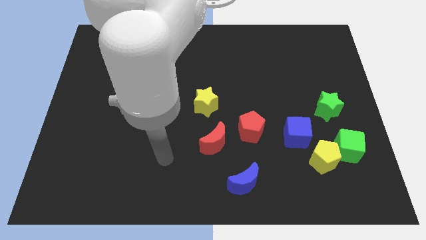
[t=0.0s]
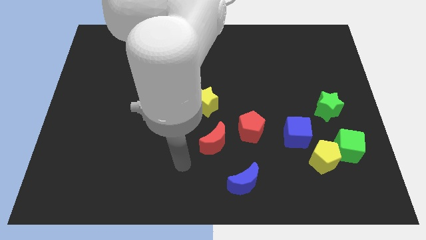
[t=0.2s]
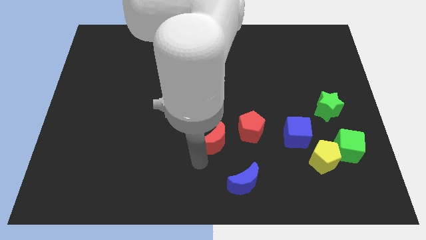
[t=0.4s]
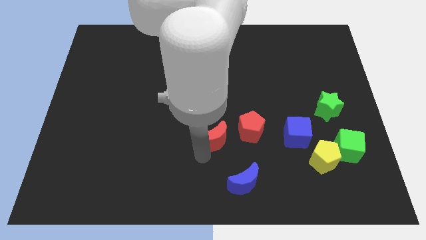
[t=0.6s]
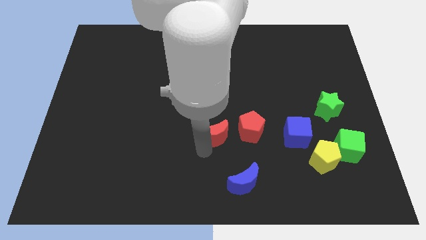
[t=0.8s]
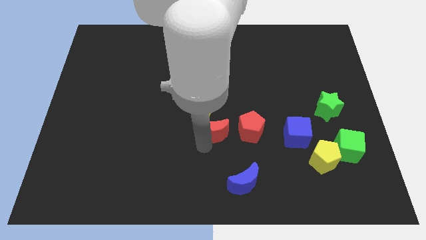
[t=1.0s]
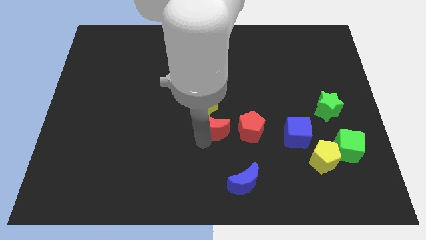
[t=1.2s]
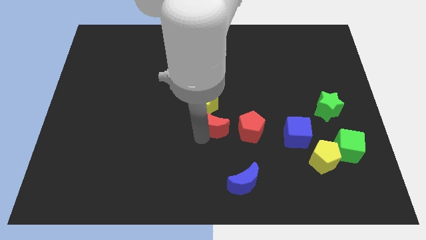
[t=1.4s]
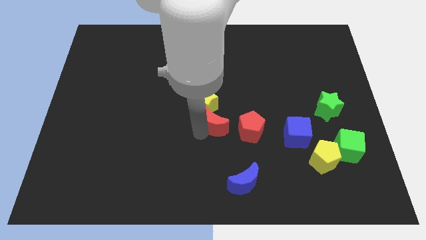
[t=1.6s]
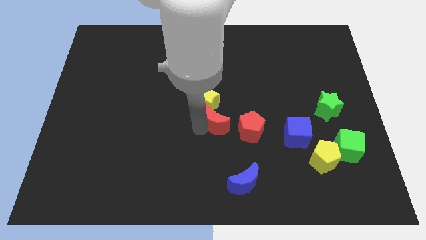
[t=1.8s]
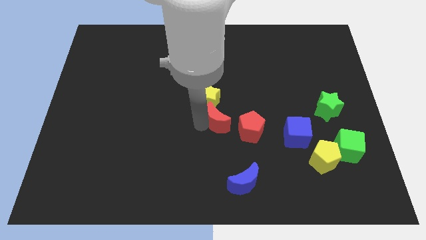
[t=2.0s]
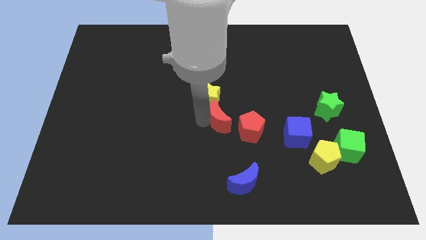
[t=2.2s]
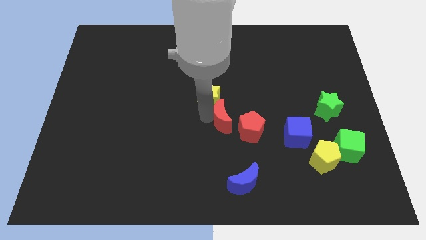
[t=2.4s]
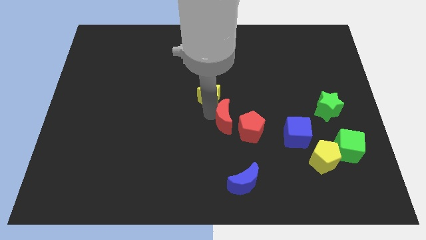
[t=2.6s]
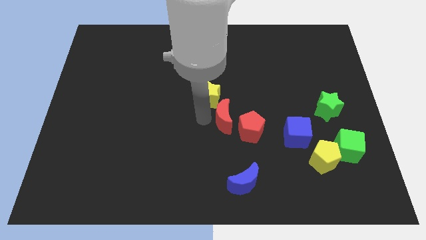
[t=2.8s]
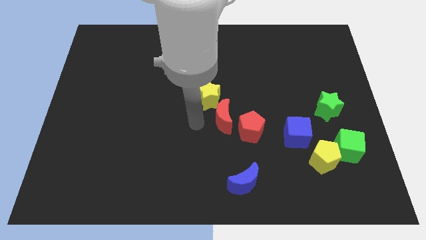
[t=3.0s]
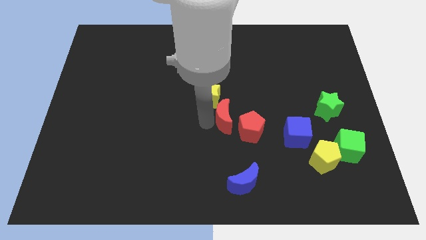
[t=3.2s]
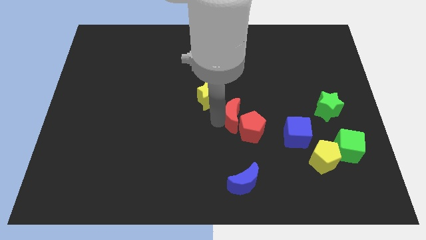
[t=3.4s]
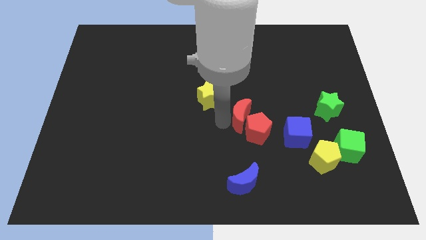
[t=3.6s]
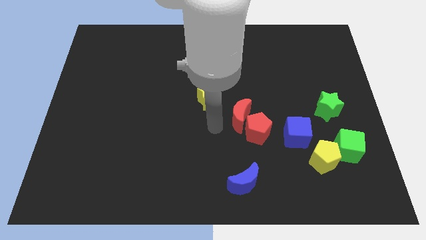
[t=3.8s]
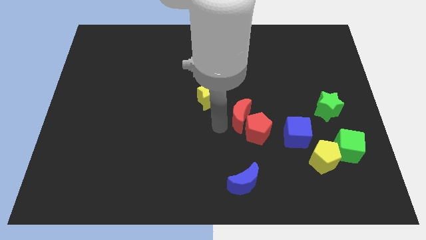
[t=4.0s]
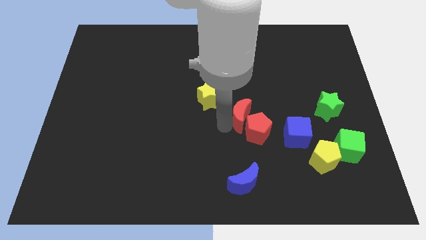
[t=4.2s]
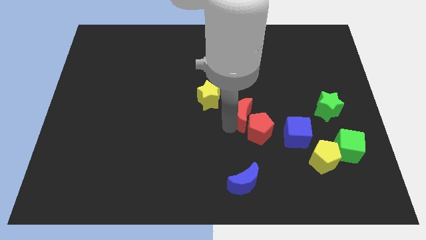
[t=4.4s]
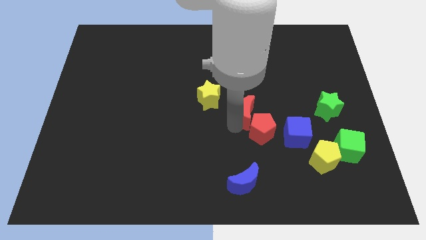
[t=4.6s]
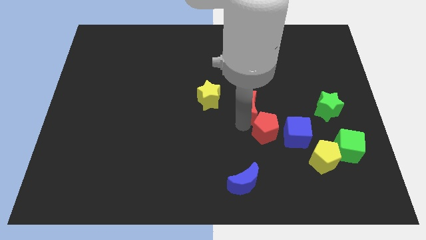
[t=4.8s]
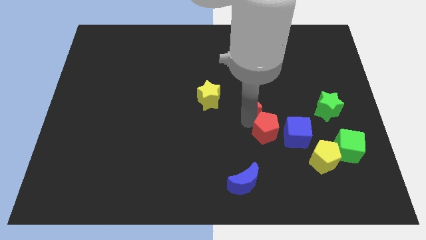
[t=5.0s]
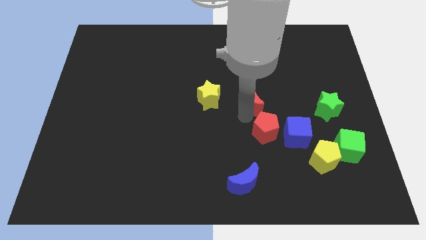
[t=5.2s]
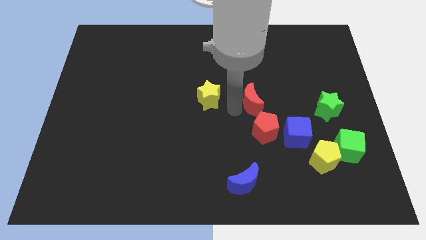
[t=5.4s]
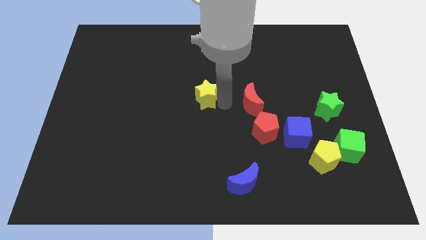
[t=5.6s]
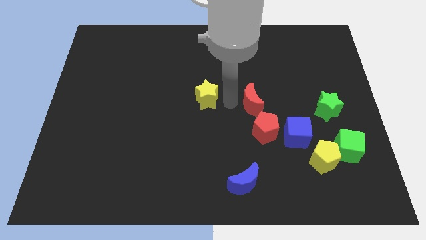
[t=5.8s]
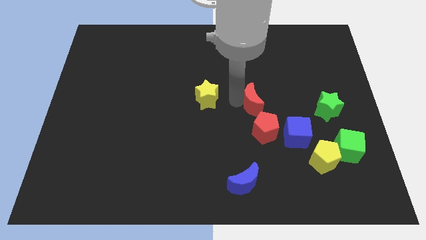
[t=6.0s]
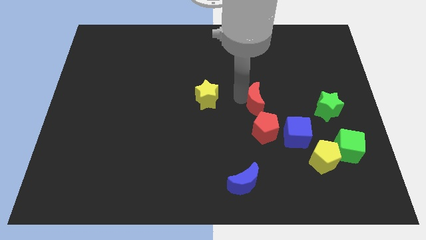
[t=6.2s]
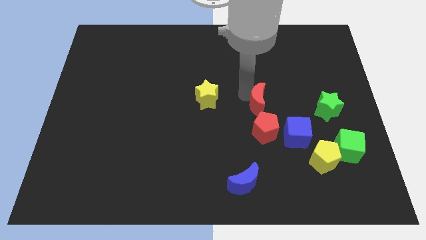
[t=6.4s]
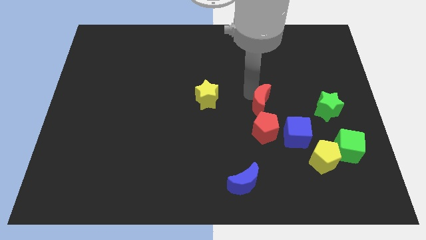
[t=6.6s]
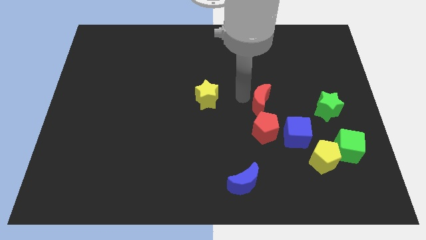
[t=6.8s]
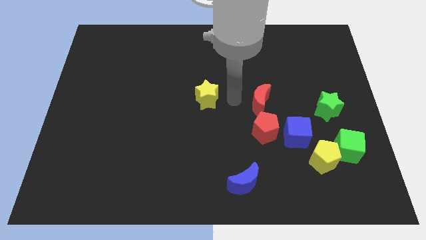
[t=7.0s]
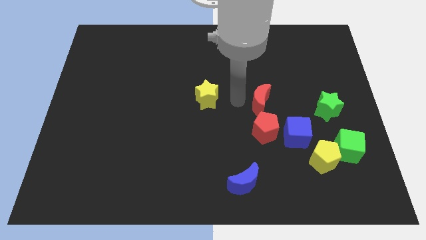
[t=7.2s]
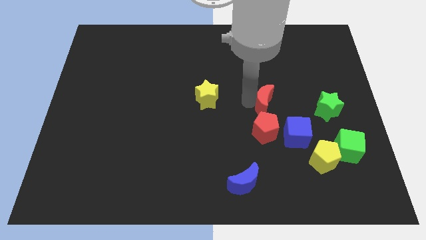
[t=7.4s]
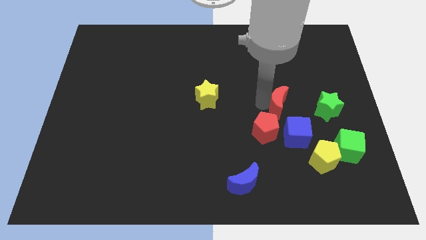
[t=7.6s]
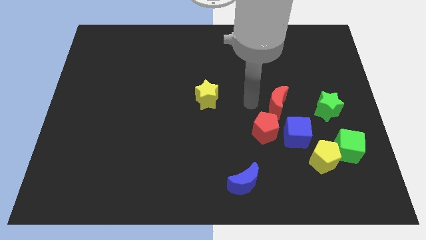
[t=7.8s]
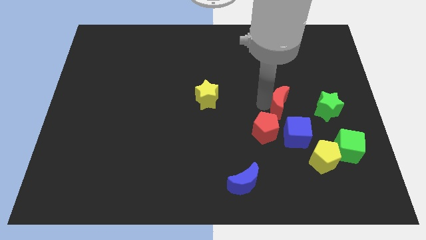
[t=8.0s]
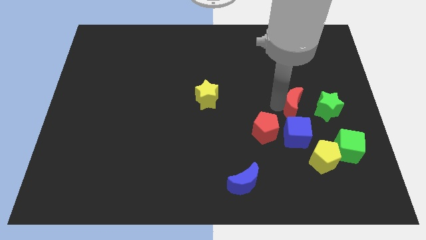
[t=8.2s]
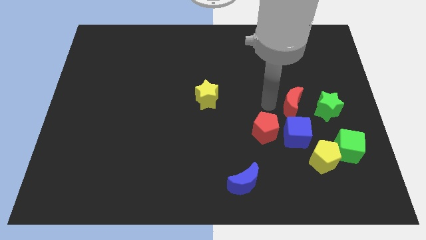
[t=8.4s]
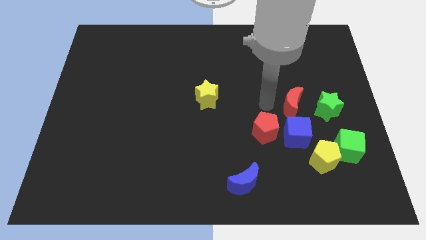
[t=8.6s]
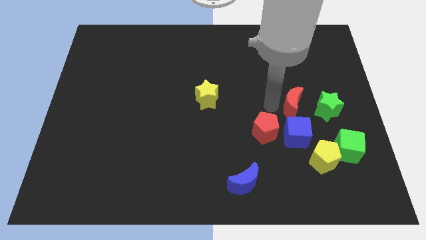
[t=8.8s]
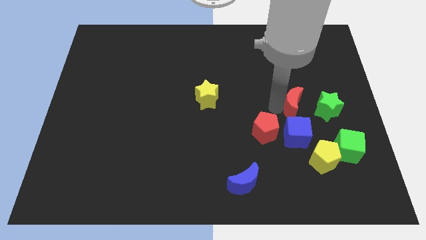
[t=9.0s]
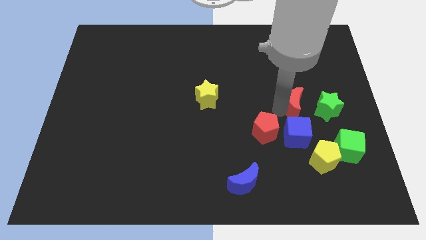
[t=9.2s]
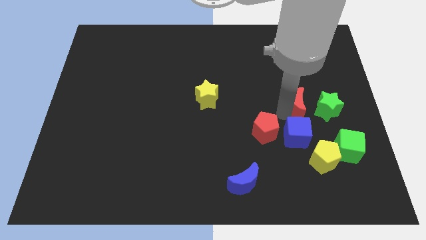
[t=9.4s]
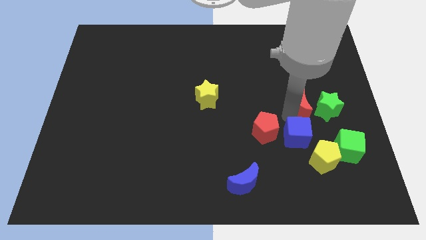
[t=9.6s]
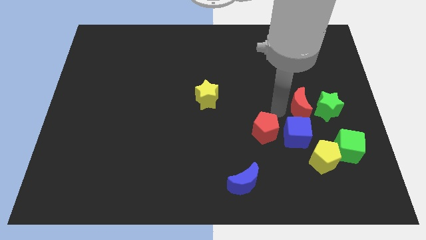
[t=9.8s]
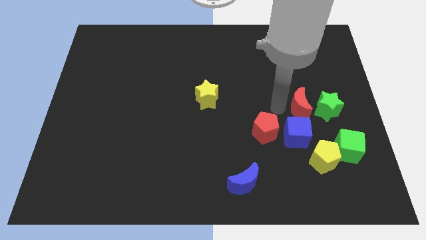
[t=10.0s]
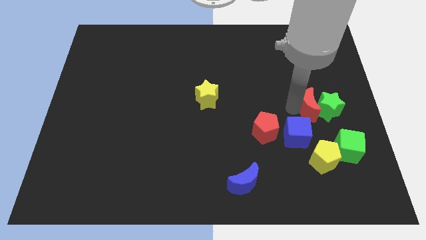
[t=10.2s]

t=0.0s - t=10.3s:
slide the red moon close to the green star

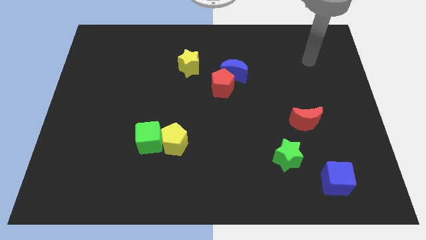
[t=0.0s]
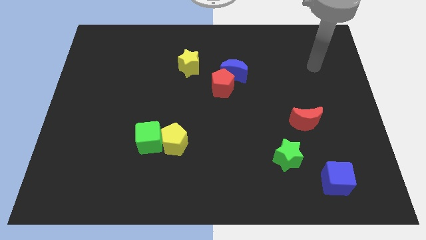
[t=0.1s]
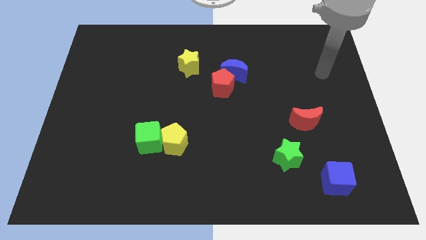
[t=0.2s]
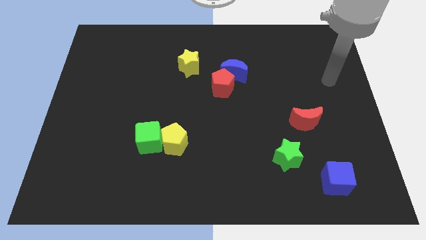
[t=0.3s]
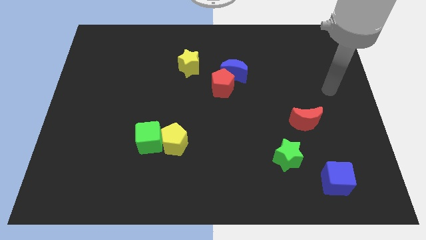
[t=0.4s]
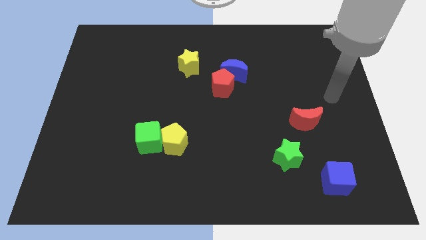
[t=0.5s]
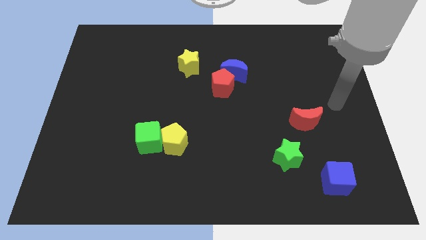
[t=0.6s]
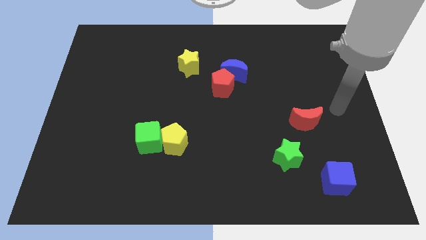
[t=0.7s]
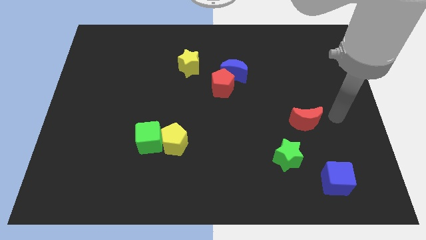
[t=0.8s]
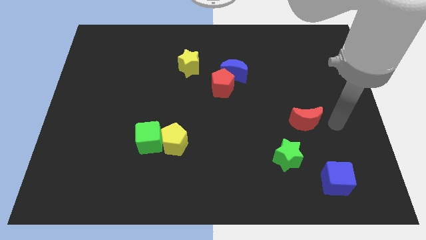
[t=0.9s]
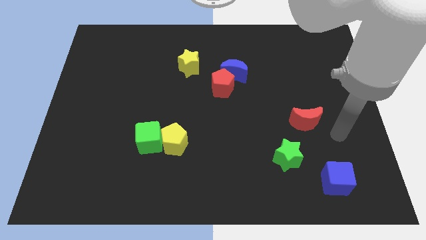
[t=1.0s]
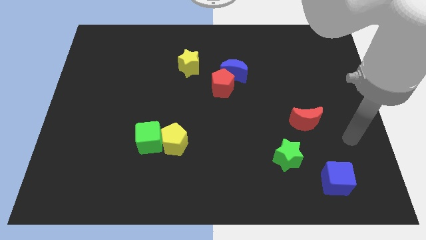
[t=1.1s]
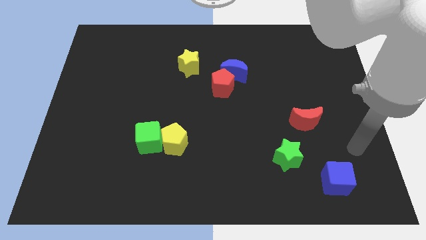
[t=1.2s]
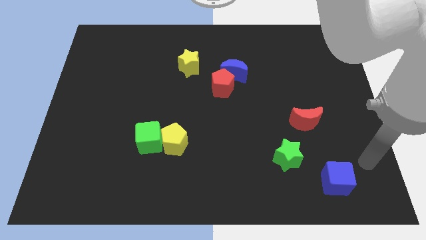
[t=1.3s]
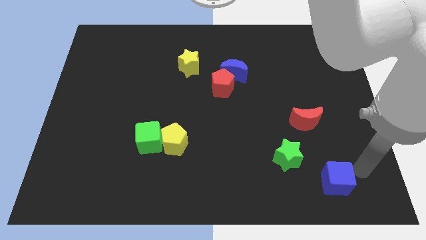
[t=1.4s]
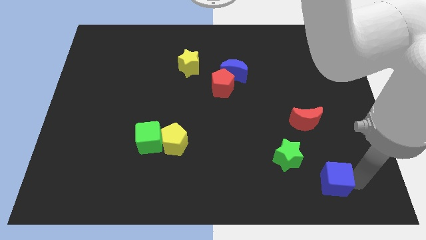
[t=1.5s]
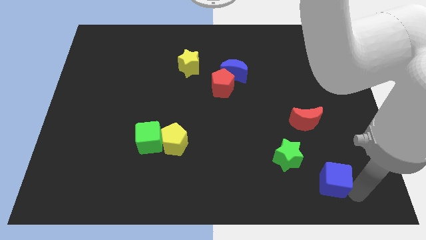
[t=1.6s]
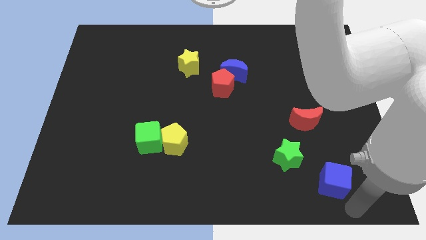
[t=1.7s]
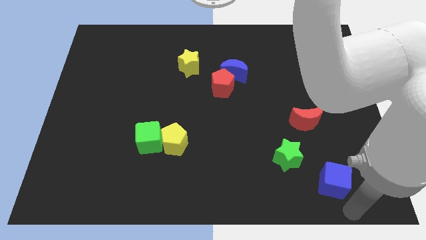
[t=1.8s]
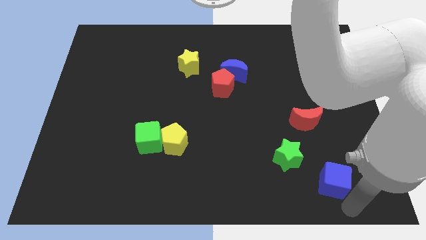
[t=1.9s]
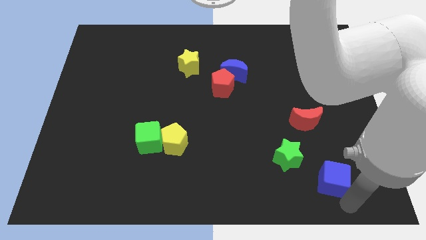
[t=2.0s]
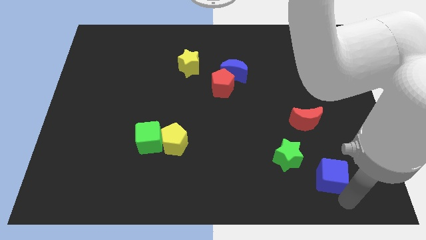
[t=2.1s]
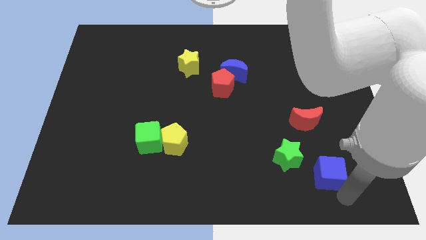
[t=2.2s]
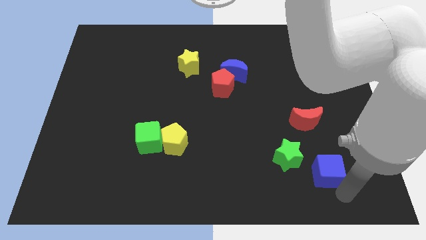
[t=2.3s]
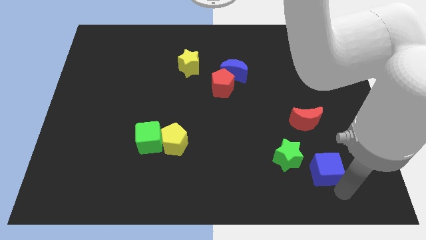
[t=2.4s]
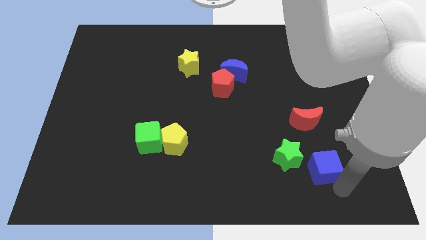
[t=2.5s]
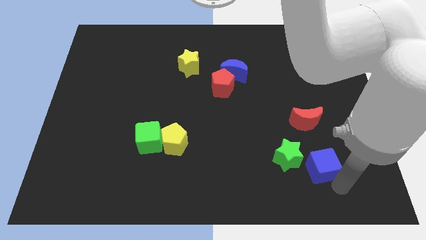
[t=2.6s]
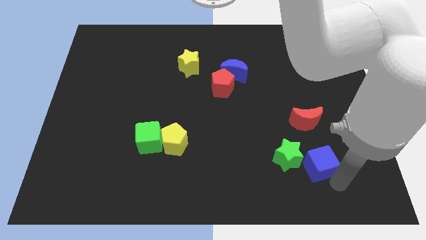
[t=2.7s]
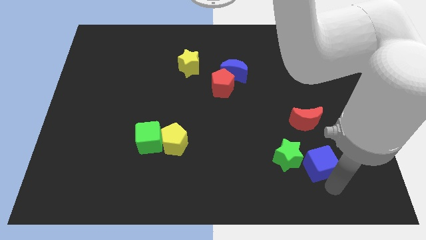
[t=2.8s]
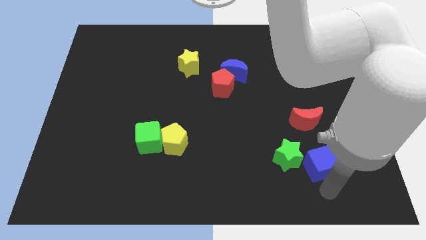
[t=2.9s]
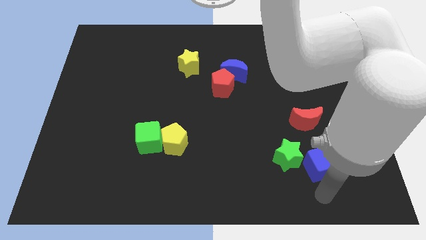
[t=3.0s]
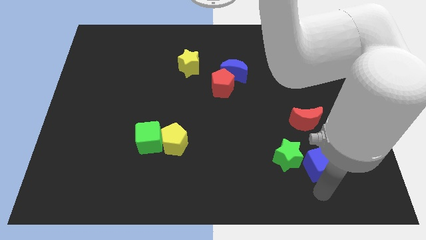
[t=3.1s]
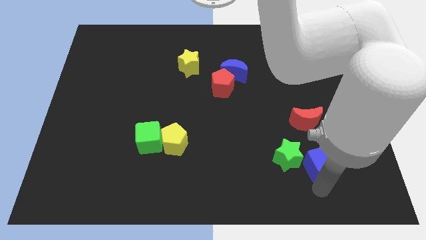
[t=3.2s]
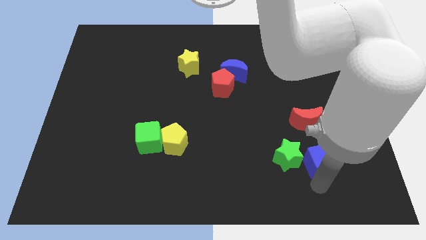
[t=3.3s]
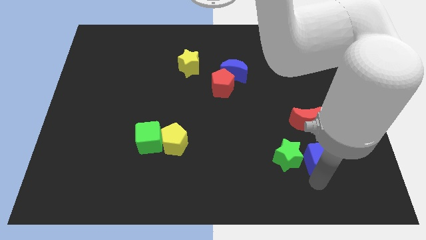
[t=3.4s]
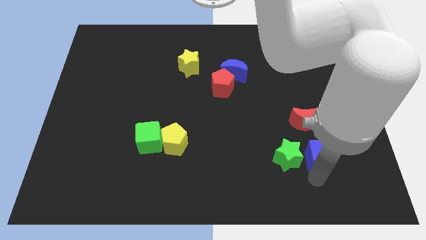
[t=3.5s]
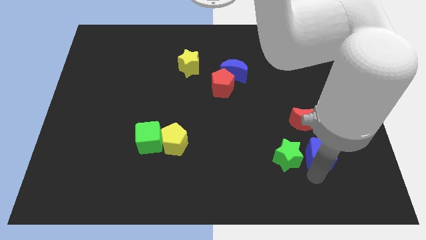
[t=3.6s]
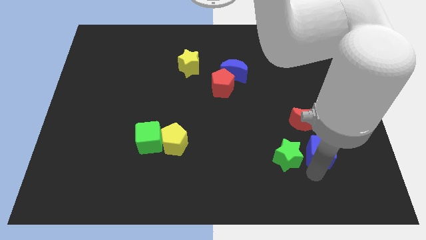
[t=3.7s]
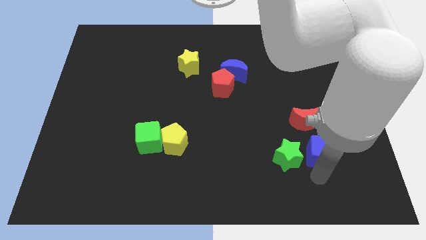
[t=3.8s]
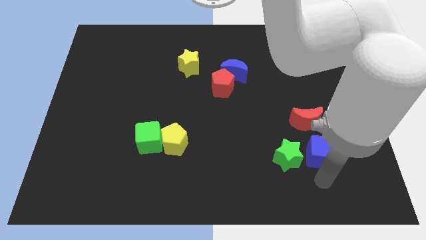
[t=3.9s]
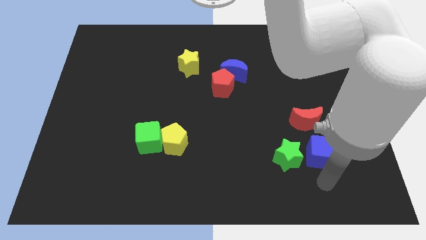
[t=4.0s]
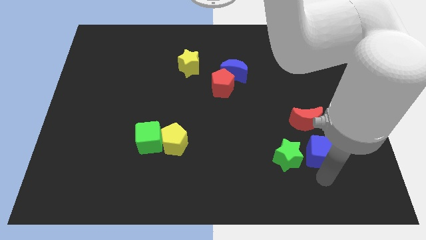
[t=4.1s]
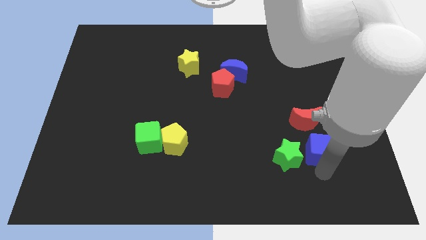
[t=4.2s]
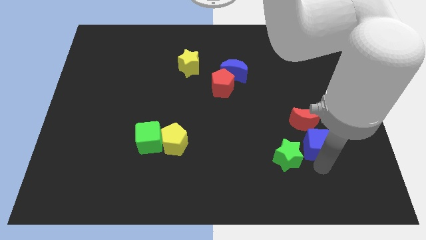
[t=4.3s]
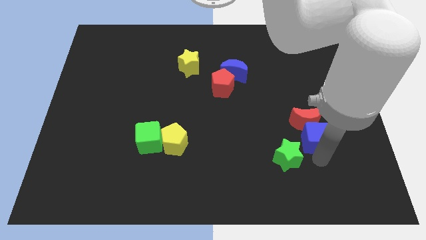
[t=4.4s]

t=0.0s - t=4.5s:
push the blue cube next to the red moon
